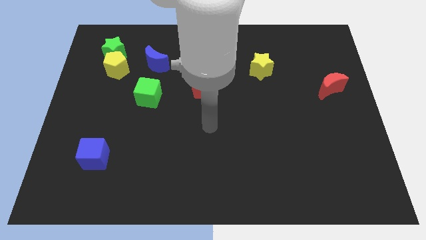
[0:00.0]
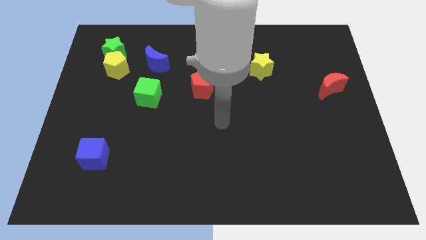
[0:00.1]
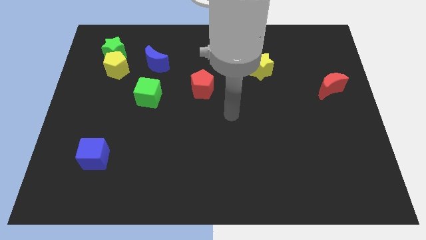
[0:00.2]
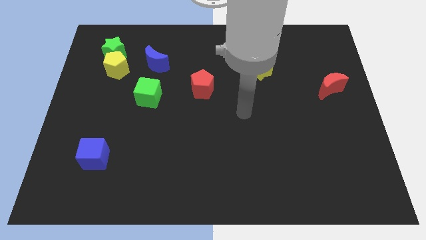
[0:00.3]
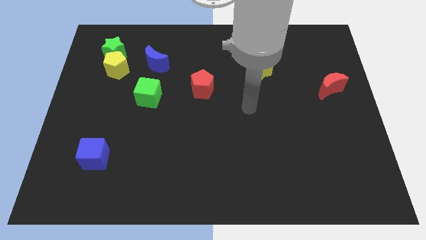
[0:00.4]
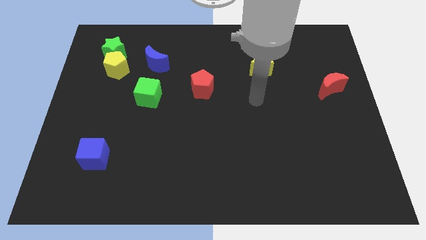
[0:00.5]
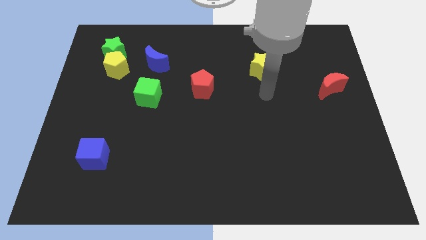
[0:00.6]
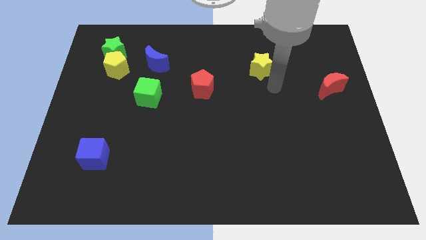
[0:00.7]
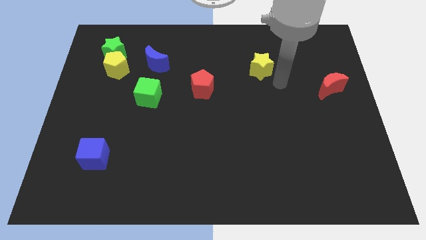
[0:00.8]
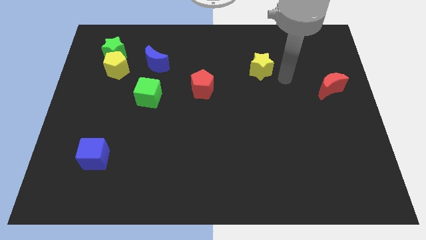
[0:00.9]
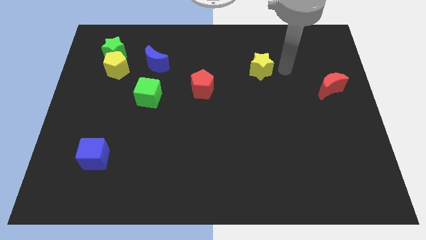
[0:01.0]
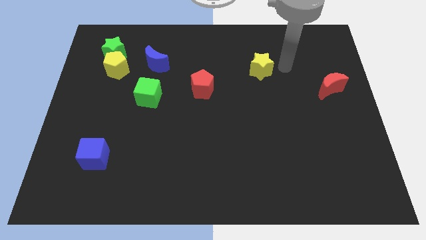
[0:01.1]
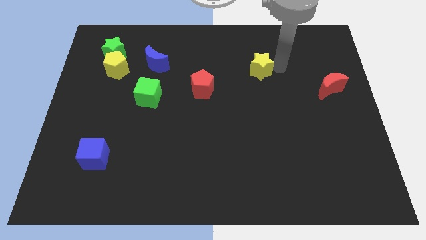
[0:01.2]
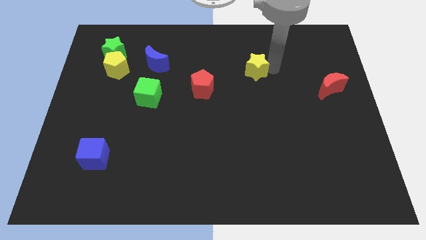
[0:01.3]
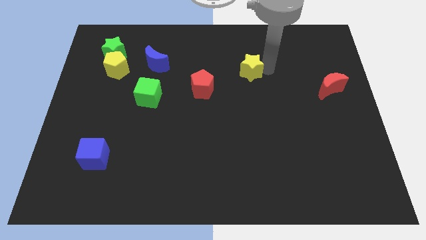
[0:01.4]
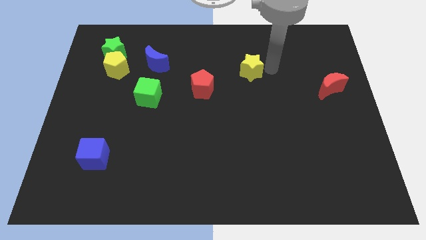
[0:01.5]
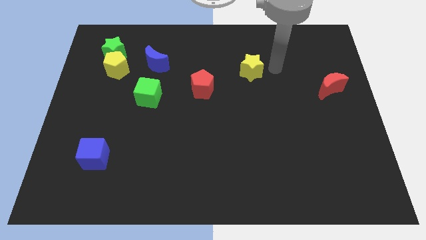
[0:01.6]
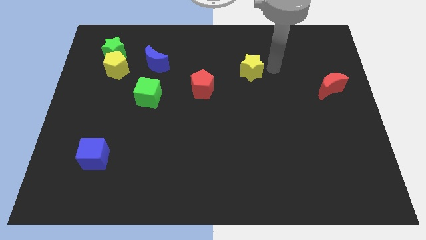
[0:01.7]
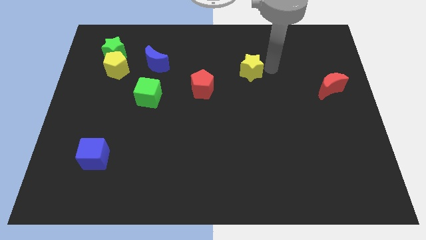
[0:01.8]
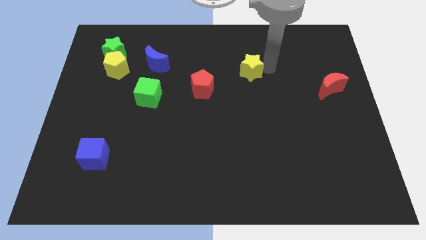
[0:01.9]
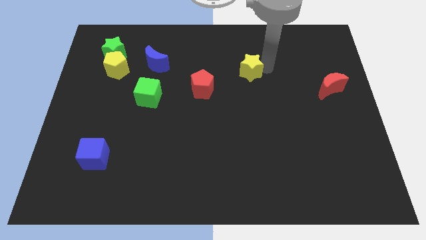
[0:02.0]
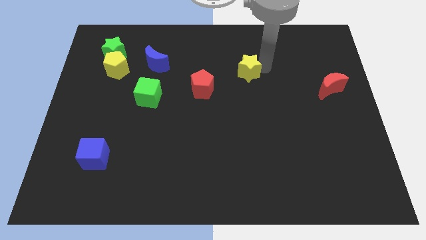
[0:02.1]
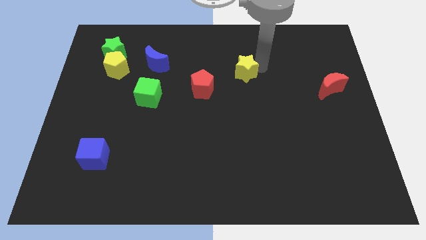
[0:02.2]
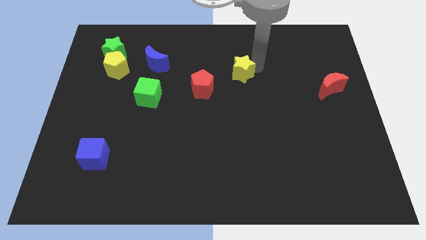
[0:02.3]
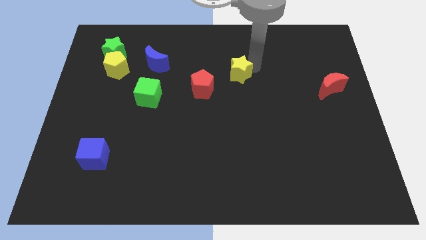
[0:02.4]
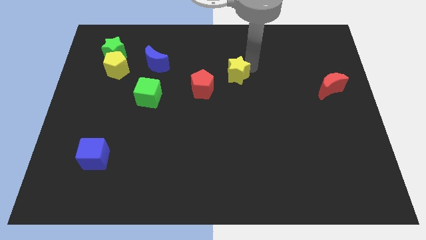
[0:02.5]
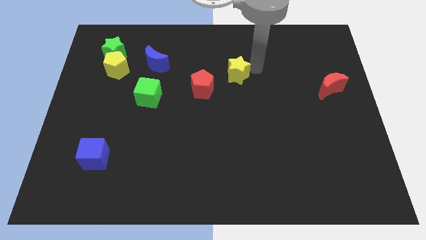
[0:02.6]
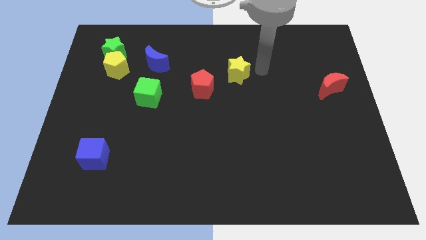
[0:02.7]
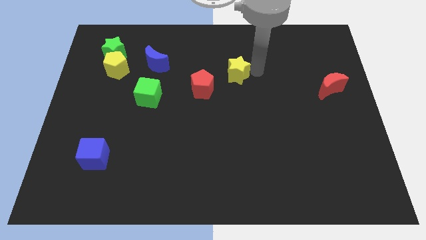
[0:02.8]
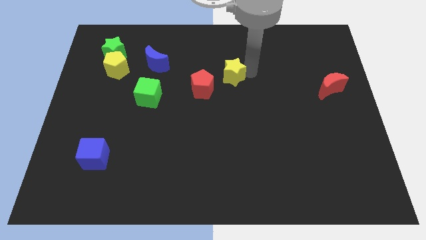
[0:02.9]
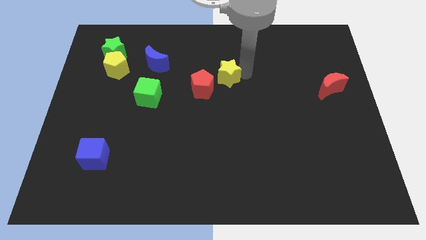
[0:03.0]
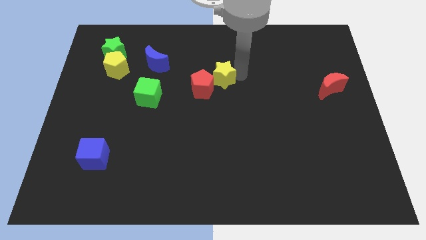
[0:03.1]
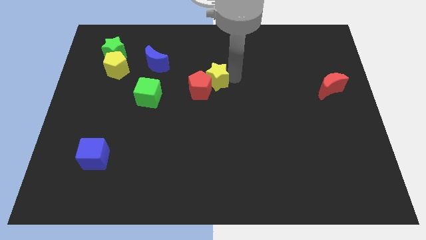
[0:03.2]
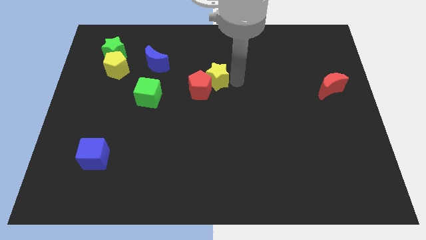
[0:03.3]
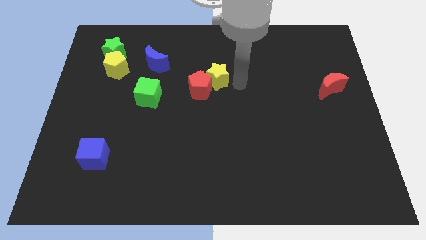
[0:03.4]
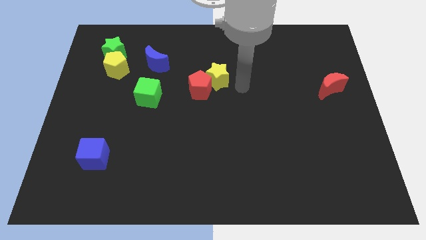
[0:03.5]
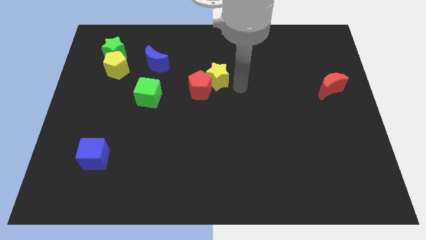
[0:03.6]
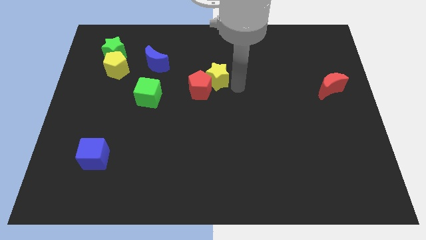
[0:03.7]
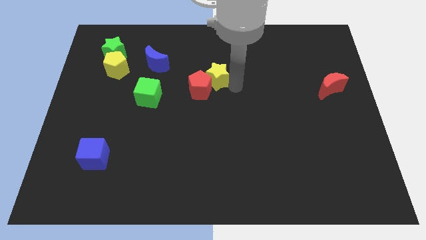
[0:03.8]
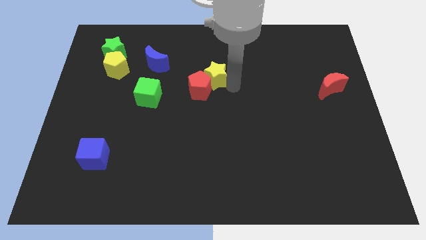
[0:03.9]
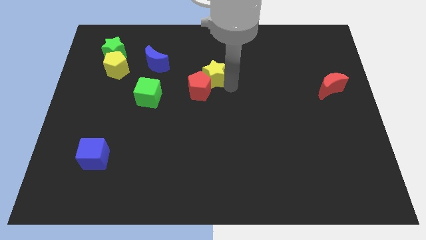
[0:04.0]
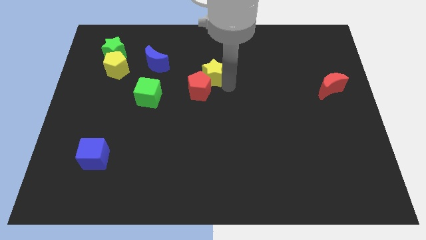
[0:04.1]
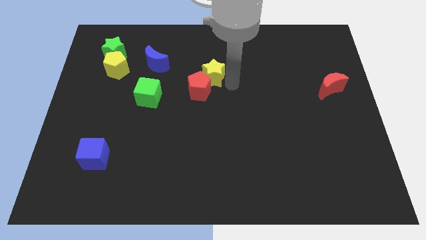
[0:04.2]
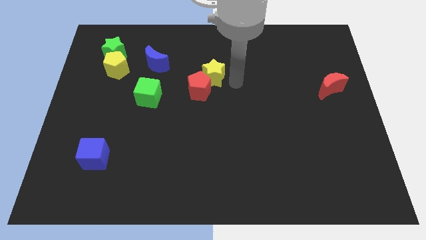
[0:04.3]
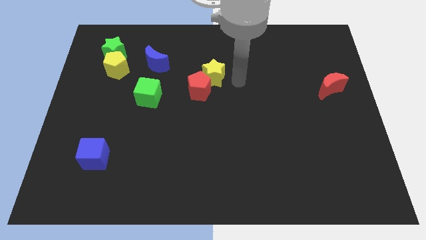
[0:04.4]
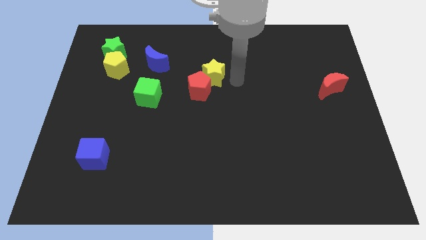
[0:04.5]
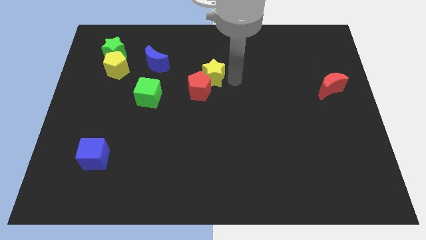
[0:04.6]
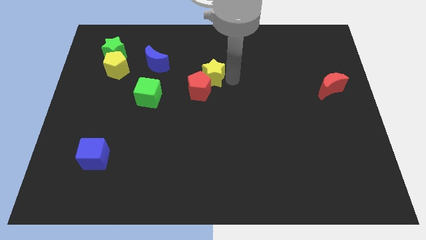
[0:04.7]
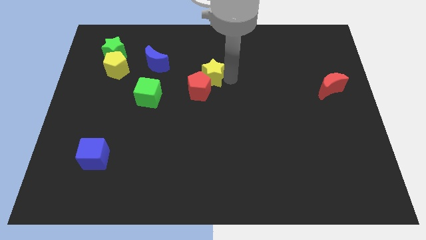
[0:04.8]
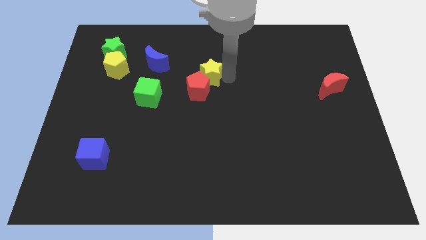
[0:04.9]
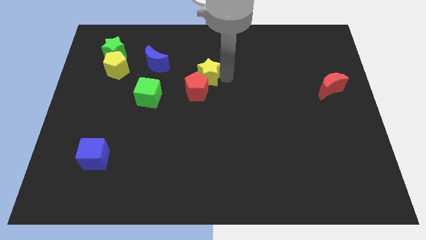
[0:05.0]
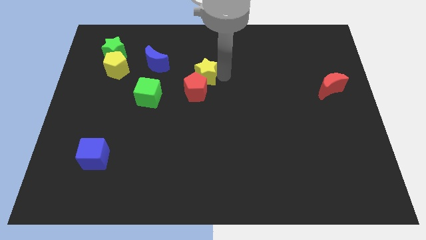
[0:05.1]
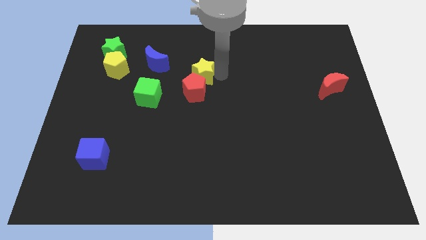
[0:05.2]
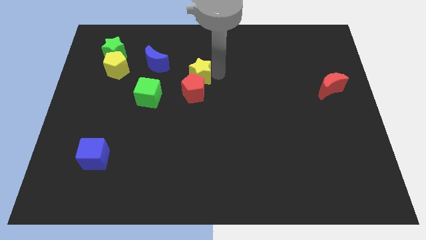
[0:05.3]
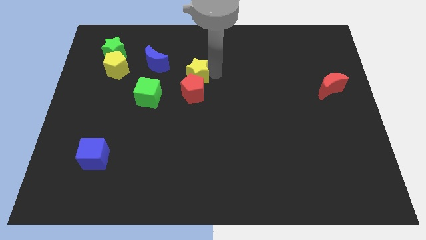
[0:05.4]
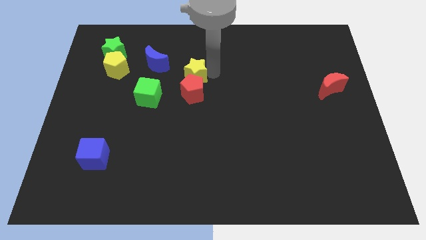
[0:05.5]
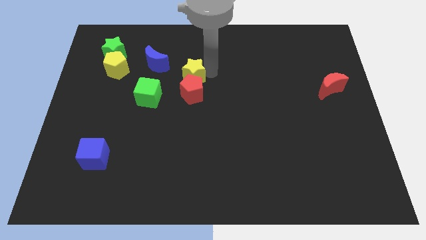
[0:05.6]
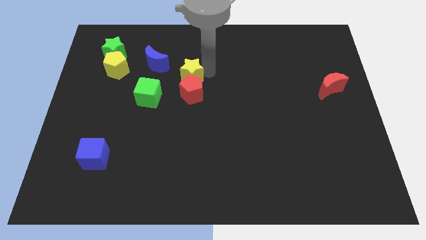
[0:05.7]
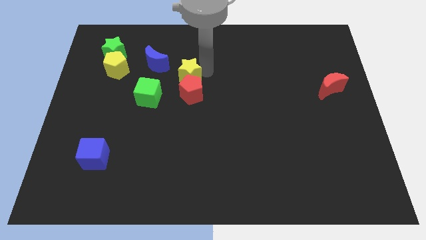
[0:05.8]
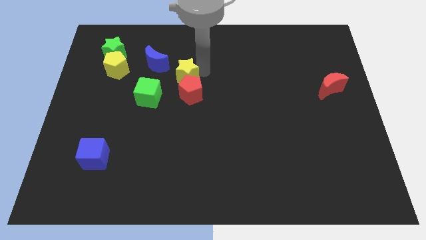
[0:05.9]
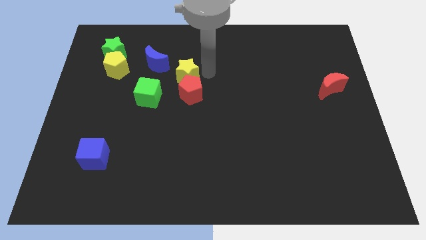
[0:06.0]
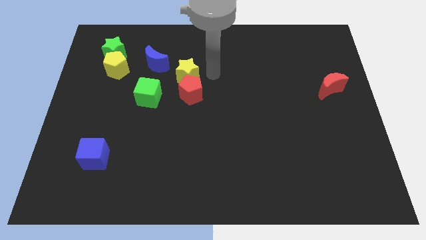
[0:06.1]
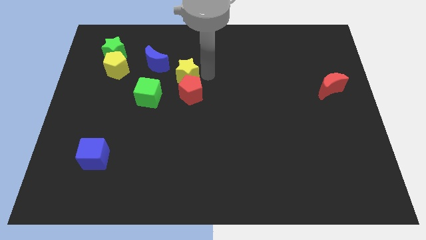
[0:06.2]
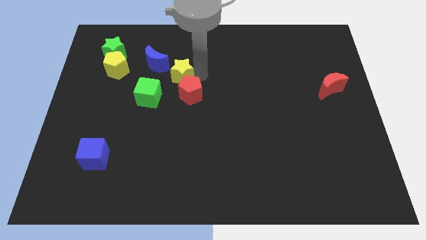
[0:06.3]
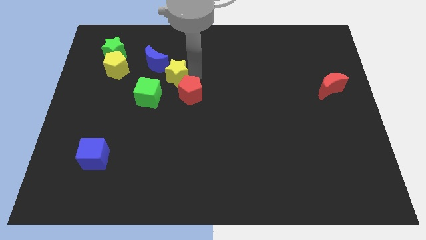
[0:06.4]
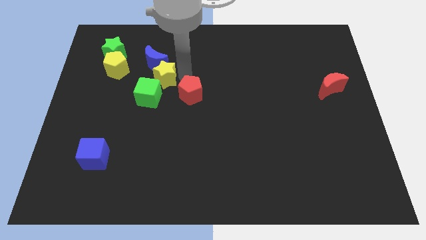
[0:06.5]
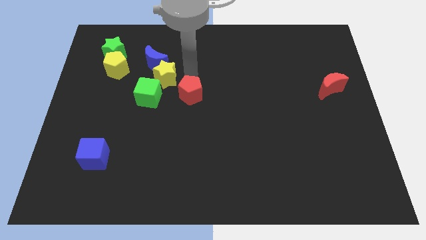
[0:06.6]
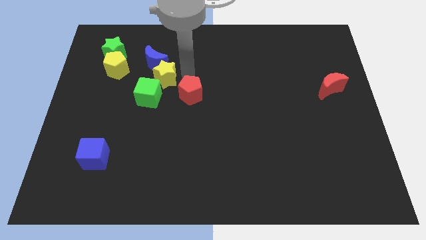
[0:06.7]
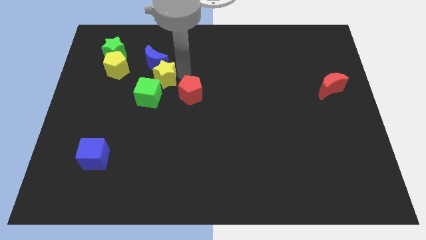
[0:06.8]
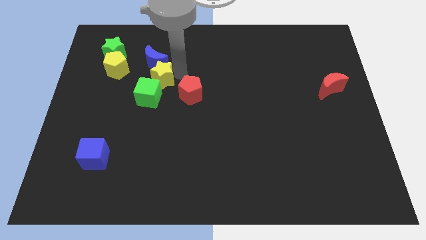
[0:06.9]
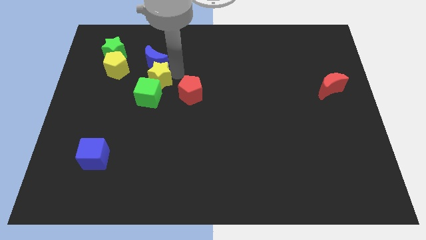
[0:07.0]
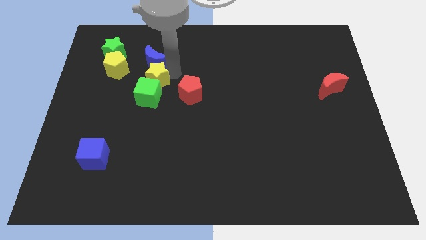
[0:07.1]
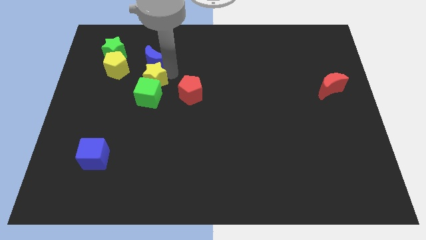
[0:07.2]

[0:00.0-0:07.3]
move the yellow star diagonally down and to the right of the yellow pentagon

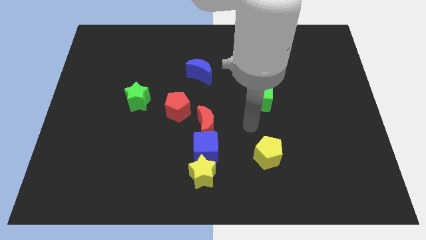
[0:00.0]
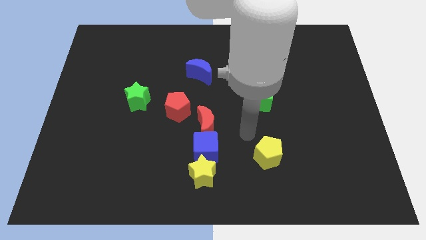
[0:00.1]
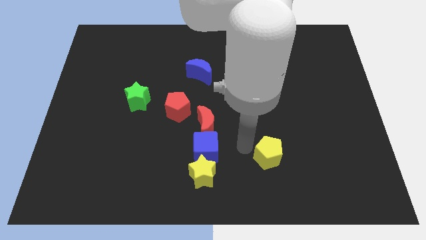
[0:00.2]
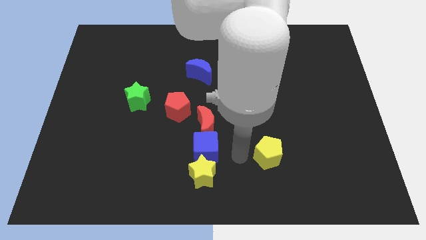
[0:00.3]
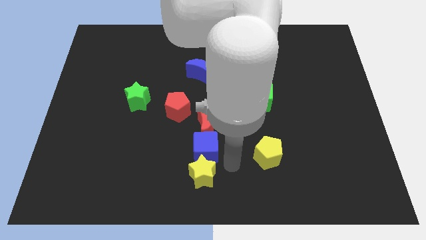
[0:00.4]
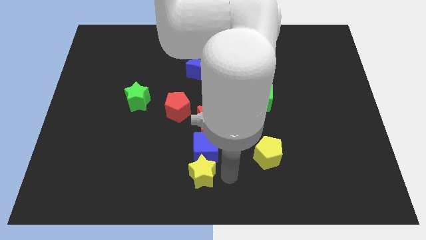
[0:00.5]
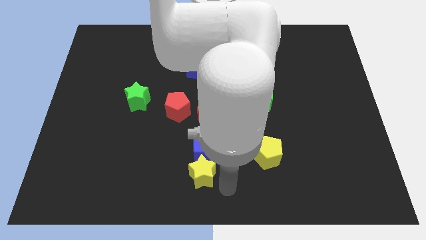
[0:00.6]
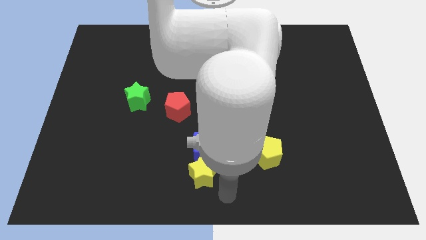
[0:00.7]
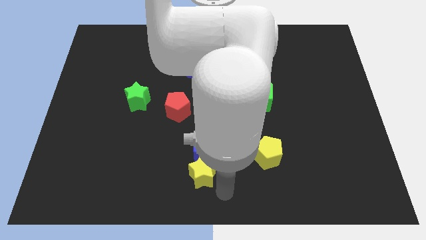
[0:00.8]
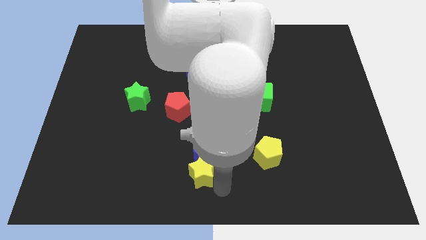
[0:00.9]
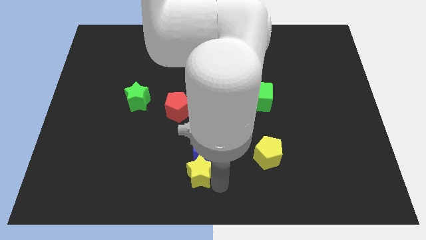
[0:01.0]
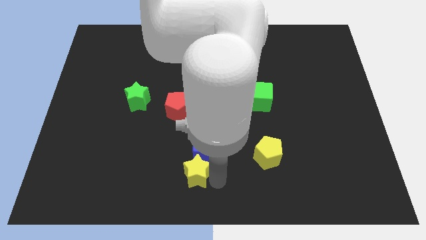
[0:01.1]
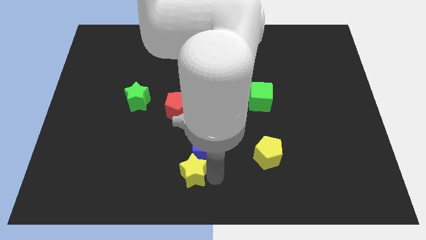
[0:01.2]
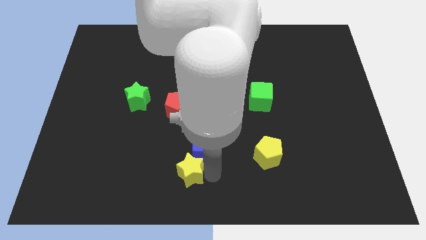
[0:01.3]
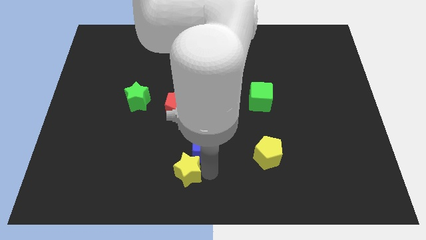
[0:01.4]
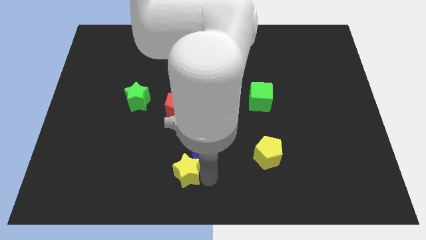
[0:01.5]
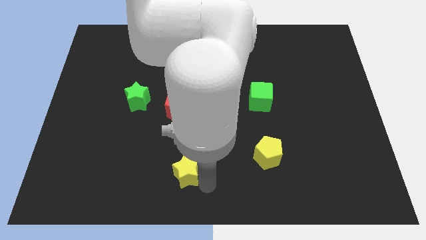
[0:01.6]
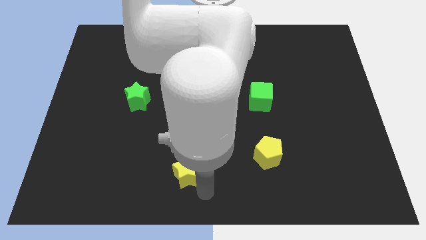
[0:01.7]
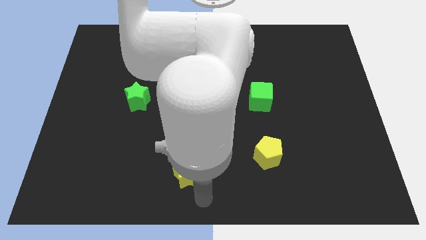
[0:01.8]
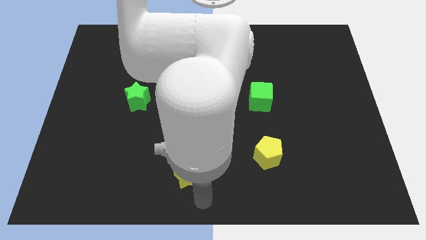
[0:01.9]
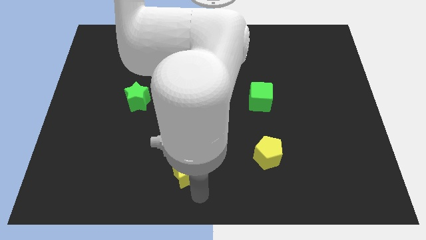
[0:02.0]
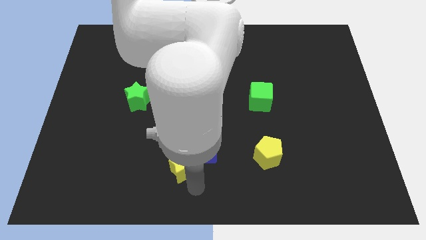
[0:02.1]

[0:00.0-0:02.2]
slide the yellow star to the bottom side of the red pentagon
